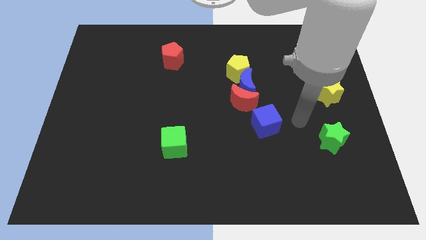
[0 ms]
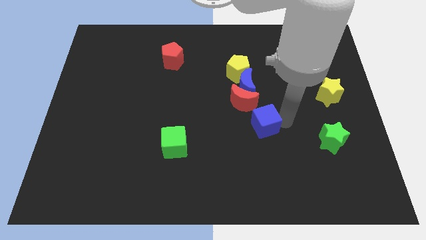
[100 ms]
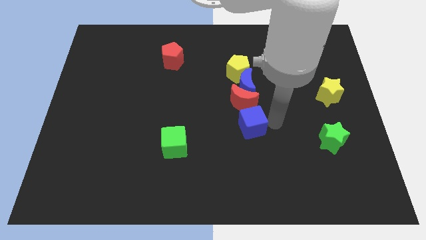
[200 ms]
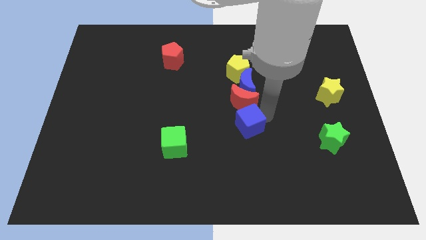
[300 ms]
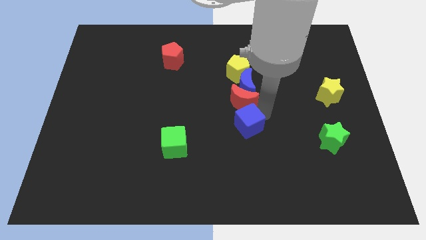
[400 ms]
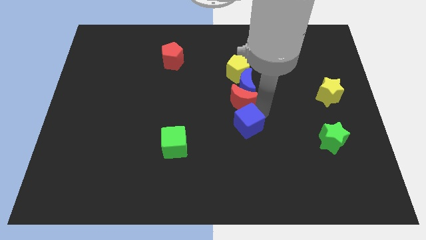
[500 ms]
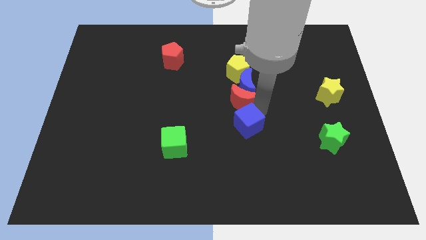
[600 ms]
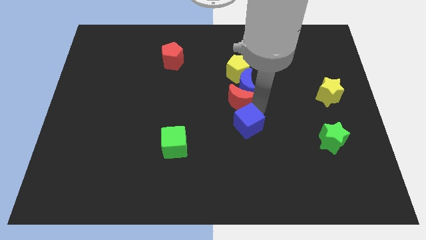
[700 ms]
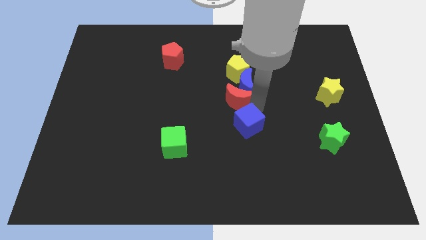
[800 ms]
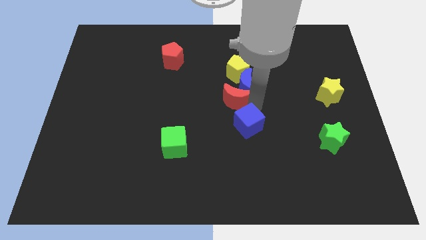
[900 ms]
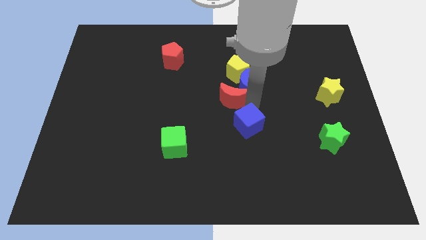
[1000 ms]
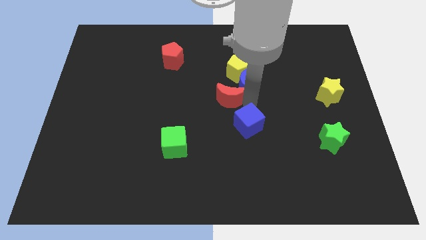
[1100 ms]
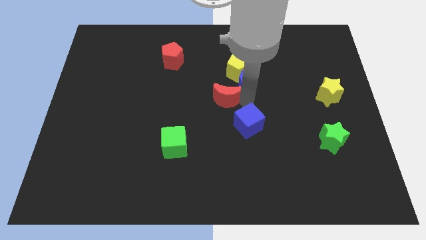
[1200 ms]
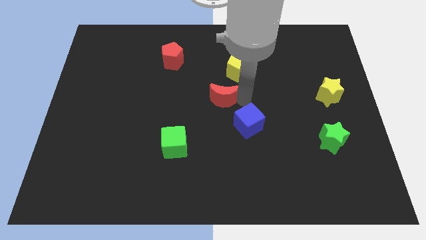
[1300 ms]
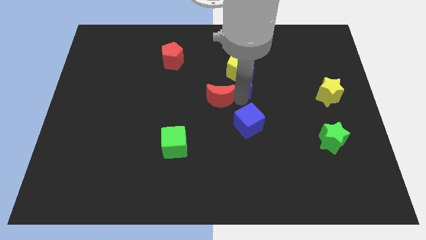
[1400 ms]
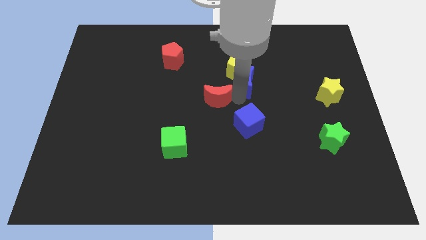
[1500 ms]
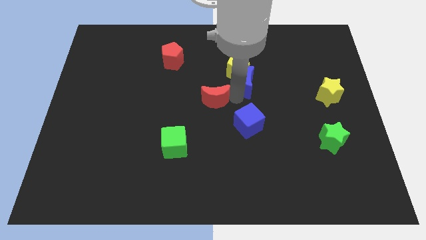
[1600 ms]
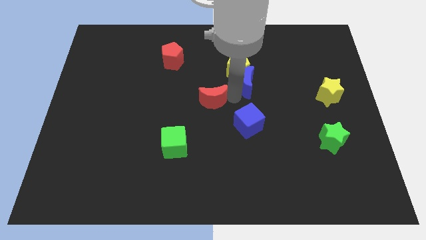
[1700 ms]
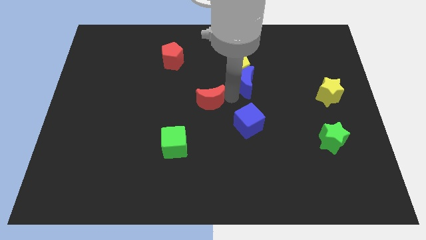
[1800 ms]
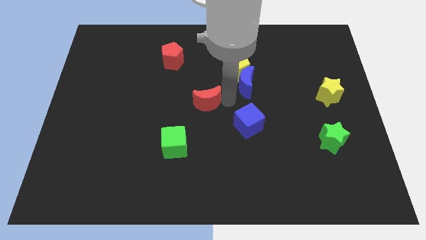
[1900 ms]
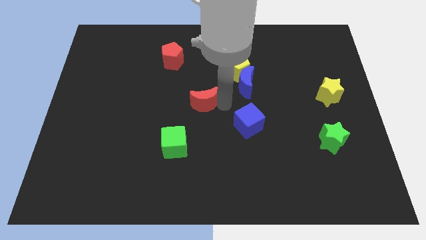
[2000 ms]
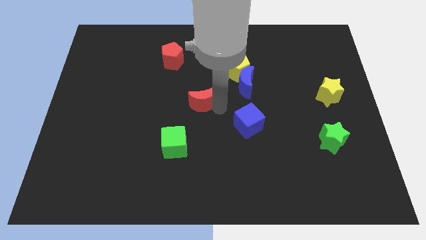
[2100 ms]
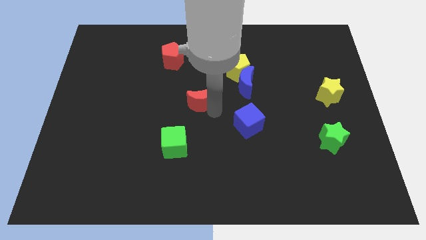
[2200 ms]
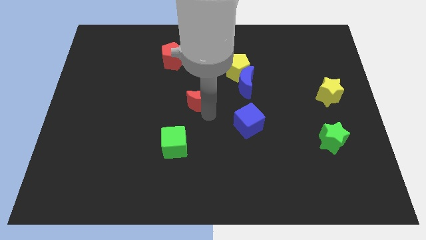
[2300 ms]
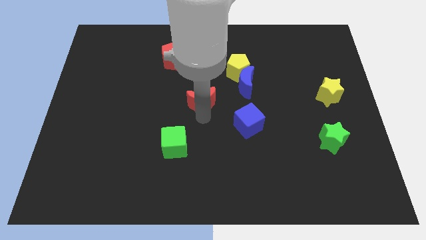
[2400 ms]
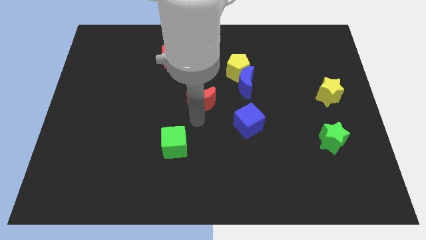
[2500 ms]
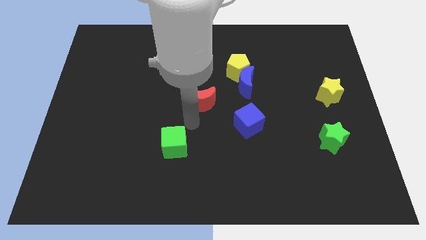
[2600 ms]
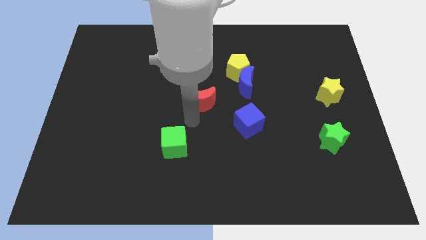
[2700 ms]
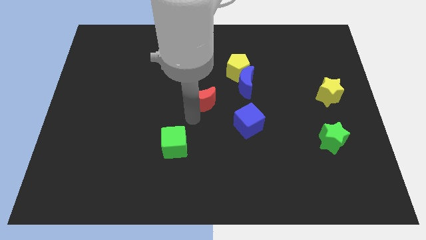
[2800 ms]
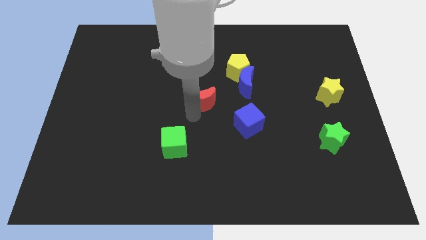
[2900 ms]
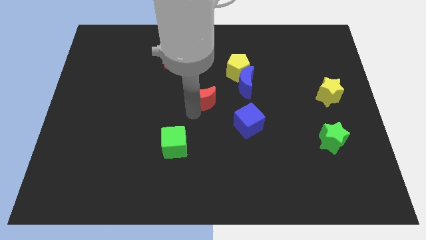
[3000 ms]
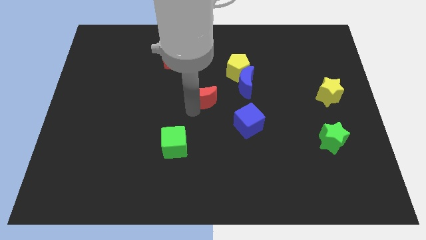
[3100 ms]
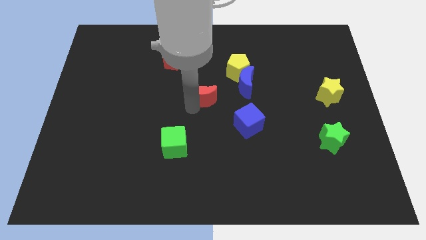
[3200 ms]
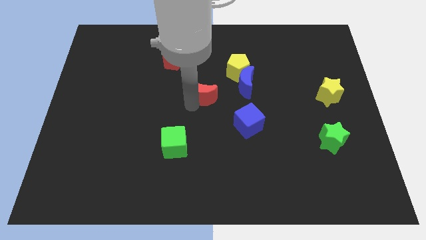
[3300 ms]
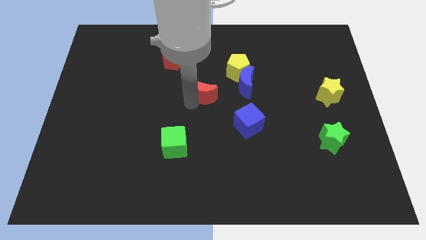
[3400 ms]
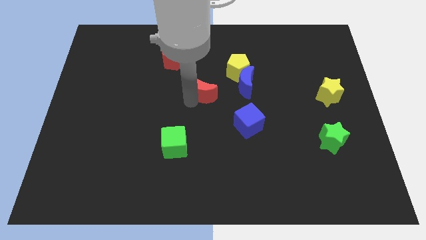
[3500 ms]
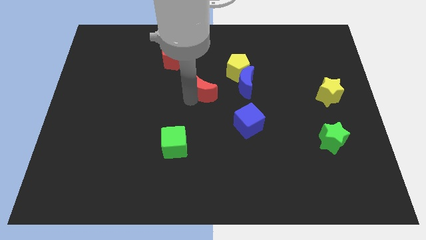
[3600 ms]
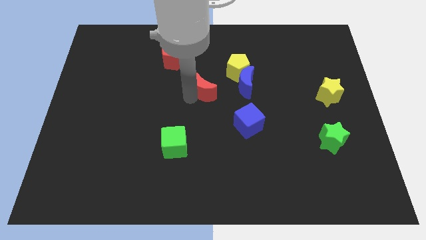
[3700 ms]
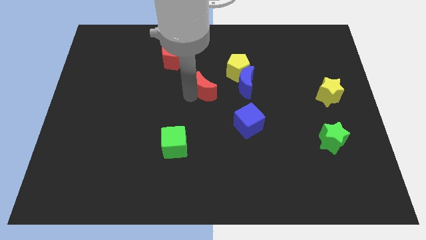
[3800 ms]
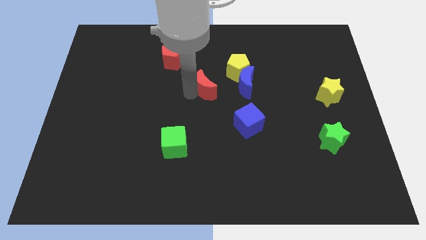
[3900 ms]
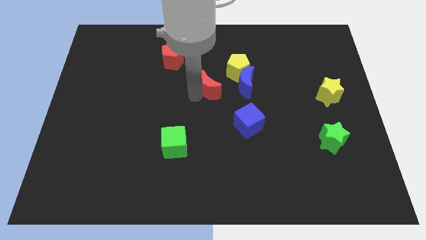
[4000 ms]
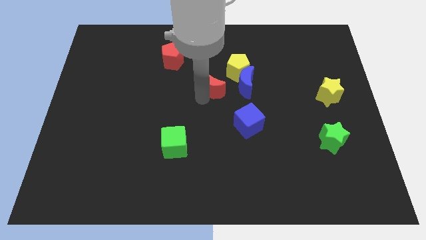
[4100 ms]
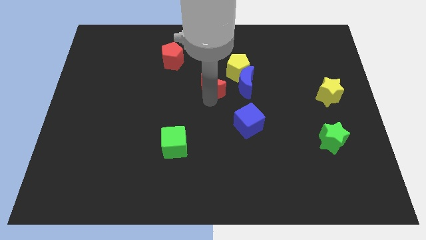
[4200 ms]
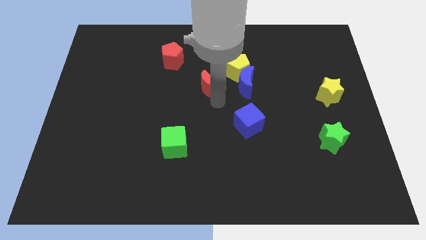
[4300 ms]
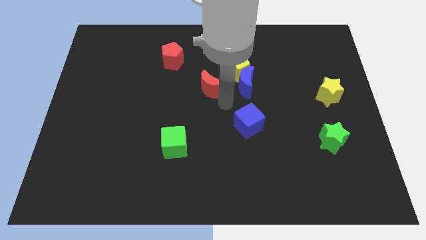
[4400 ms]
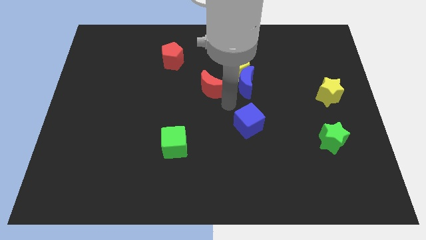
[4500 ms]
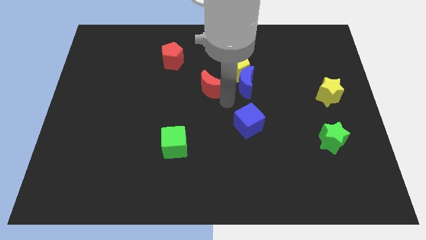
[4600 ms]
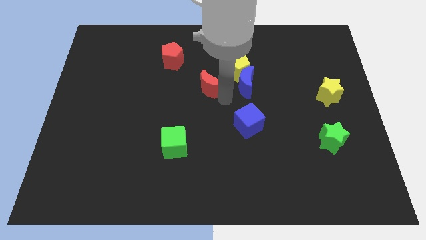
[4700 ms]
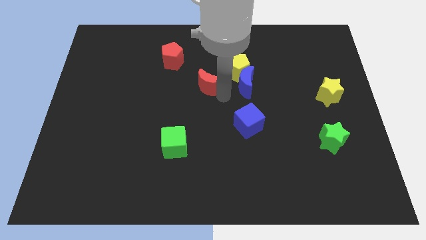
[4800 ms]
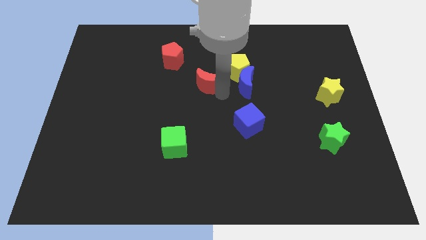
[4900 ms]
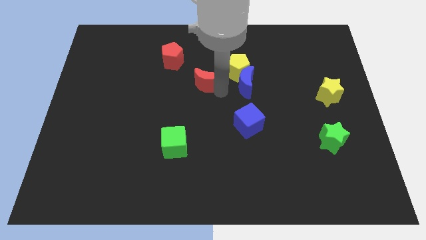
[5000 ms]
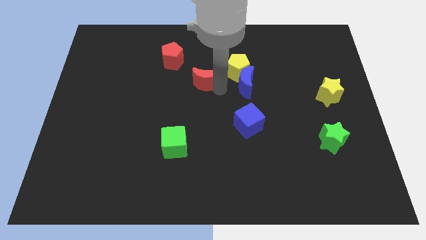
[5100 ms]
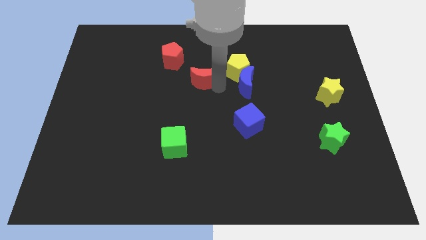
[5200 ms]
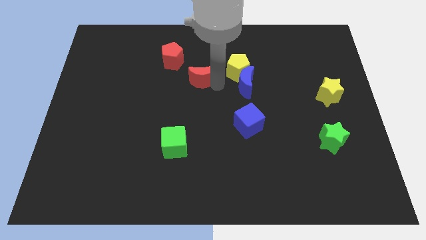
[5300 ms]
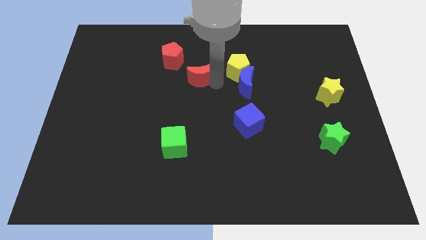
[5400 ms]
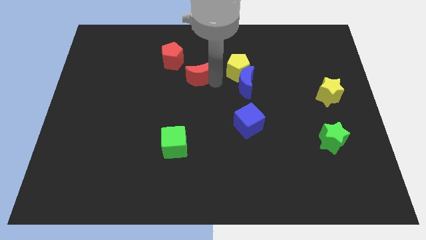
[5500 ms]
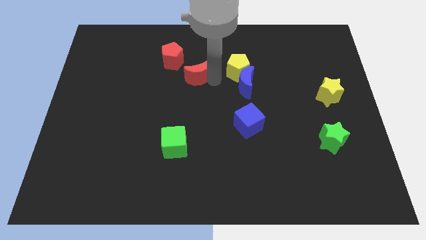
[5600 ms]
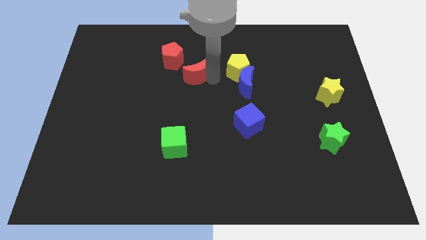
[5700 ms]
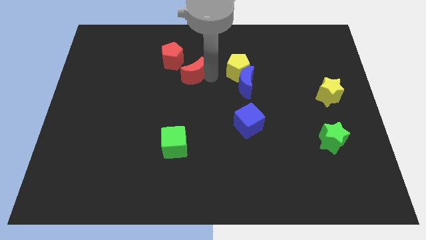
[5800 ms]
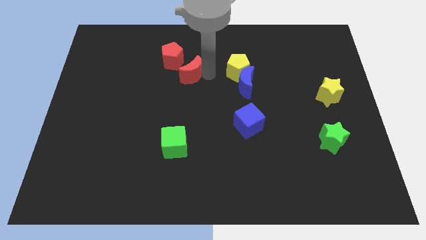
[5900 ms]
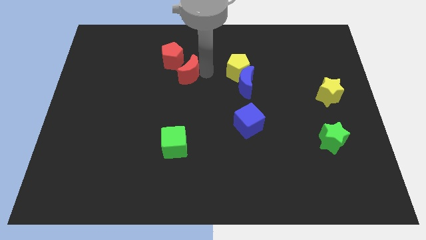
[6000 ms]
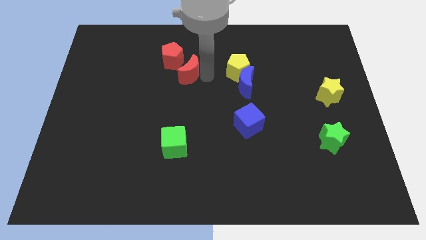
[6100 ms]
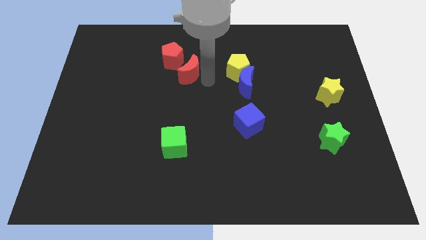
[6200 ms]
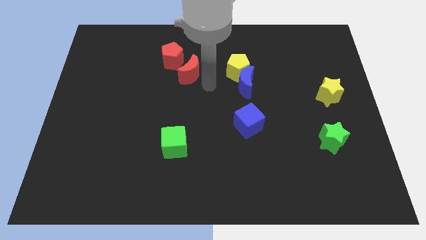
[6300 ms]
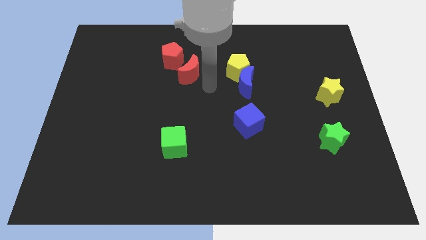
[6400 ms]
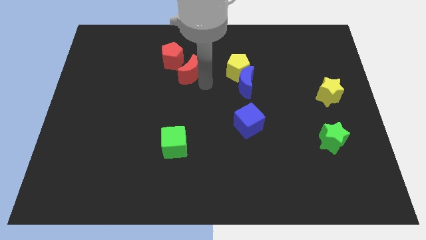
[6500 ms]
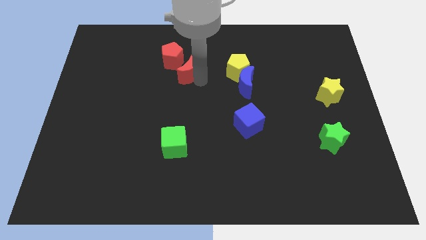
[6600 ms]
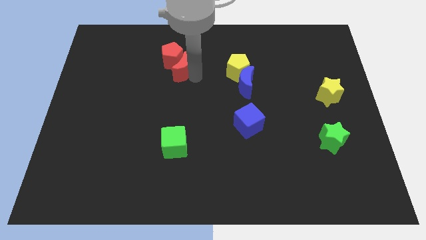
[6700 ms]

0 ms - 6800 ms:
push the red moon close to the red pentagon

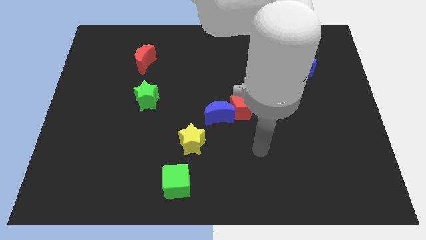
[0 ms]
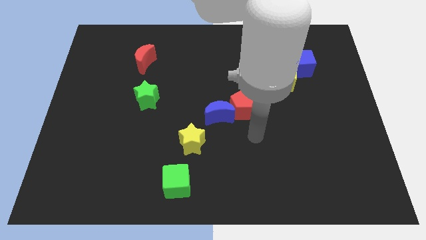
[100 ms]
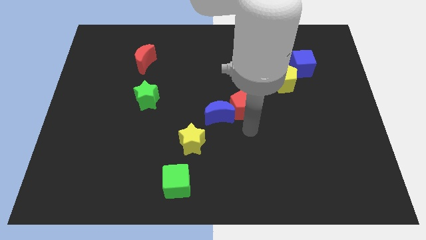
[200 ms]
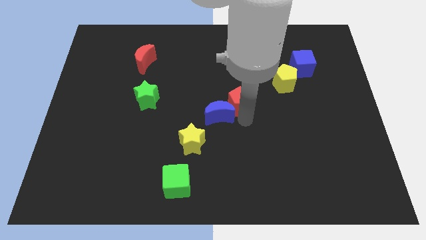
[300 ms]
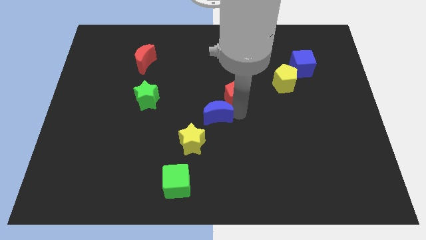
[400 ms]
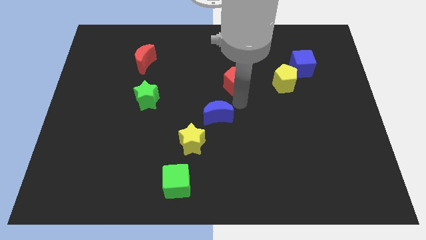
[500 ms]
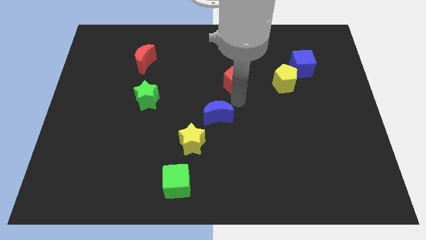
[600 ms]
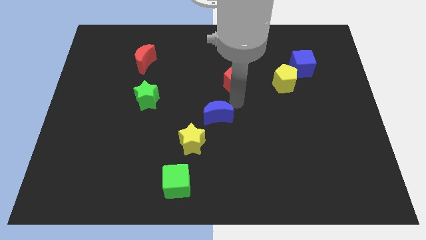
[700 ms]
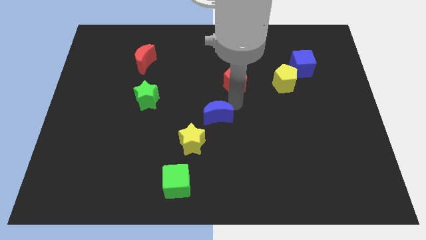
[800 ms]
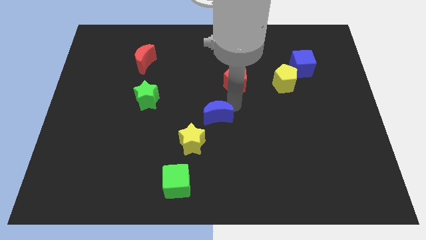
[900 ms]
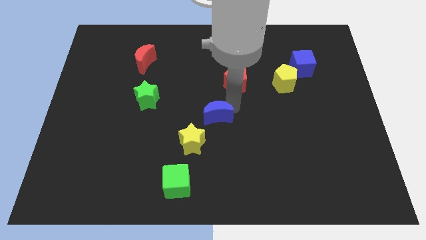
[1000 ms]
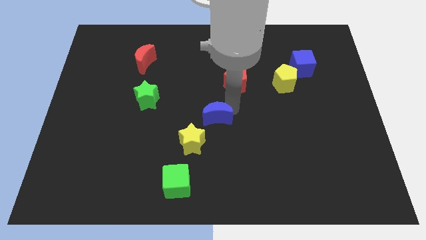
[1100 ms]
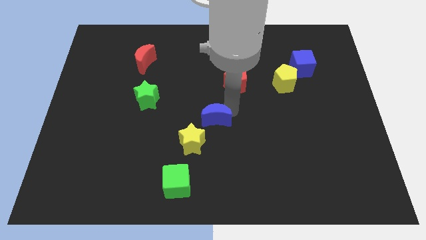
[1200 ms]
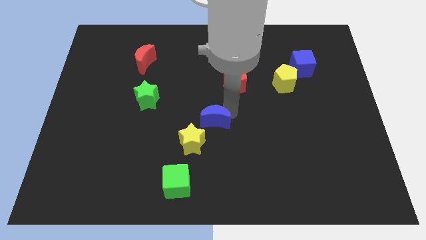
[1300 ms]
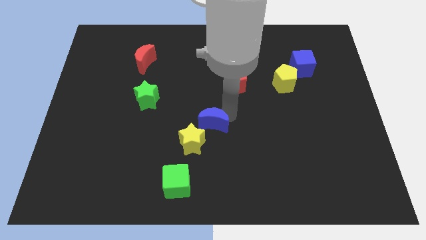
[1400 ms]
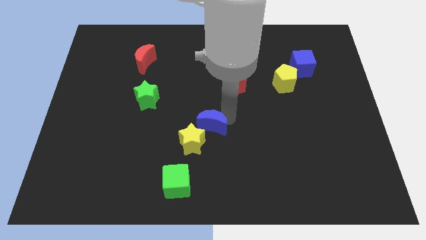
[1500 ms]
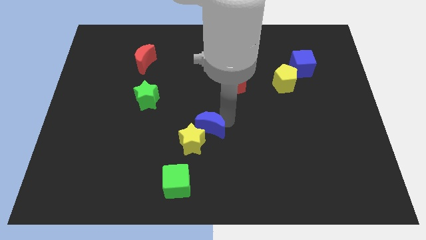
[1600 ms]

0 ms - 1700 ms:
move the blue moon next to the yellow star
